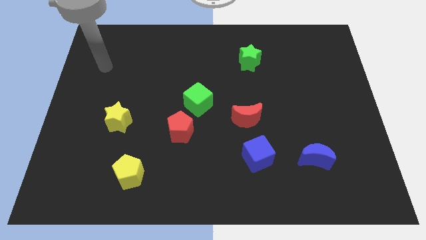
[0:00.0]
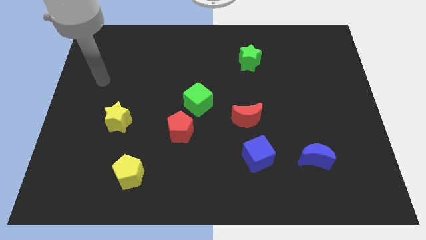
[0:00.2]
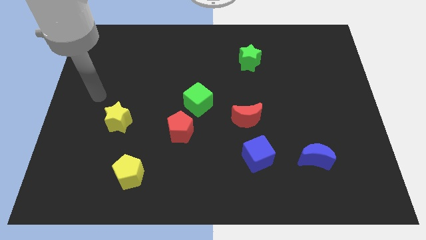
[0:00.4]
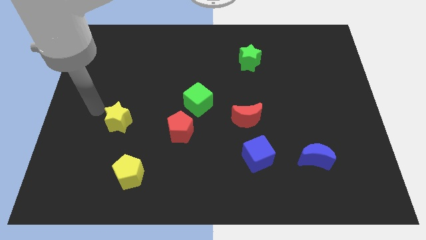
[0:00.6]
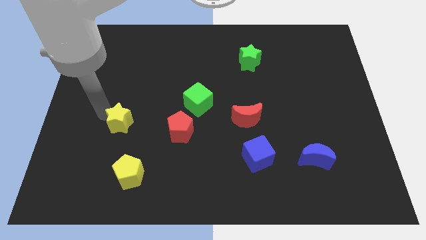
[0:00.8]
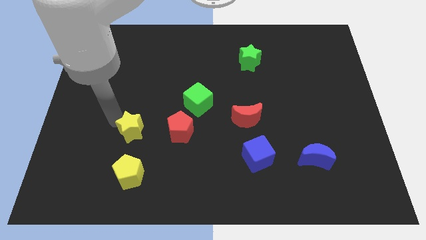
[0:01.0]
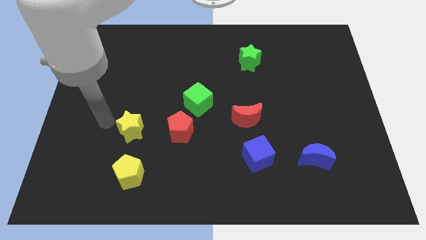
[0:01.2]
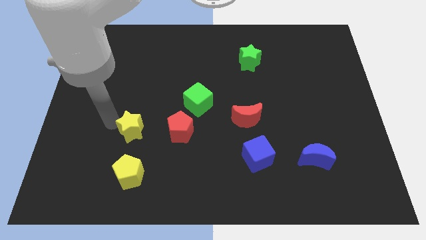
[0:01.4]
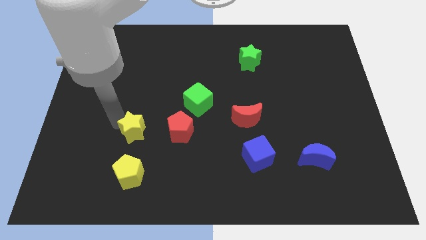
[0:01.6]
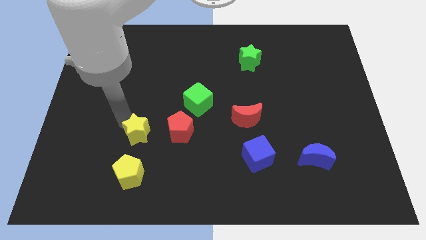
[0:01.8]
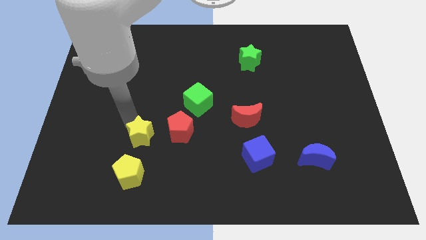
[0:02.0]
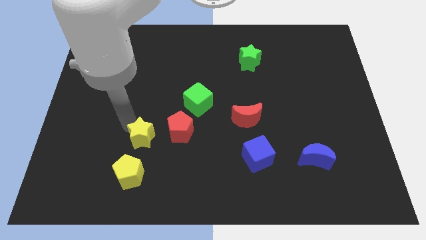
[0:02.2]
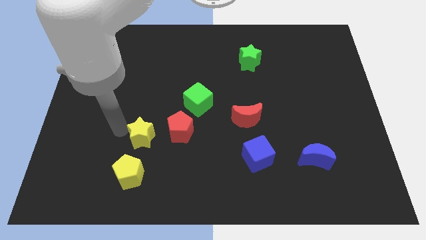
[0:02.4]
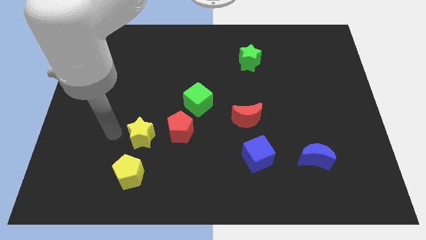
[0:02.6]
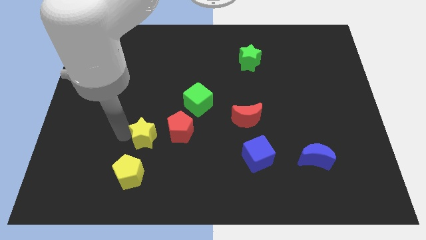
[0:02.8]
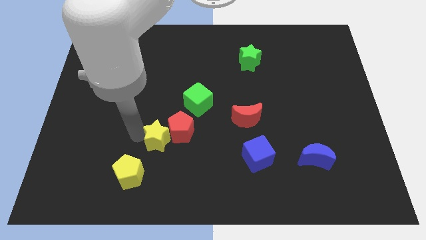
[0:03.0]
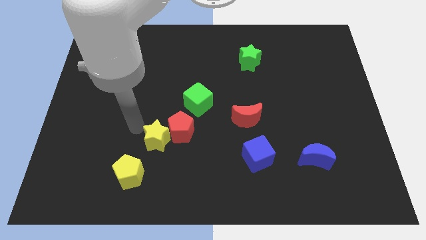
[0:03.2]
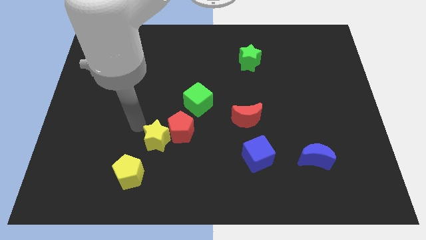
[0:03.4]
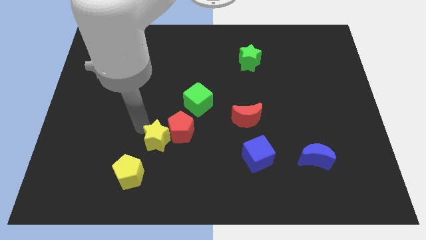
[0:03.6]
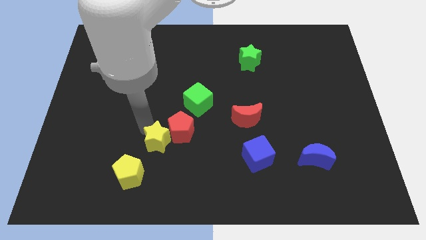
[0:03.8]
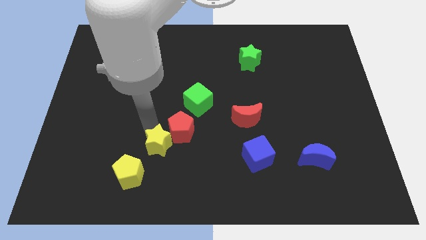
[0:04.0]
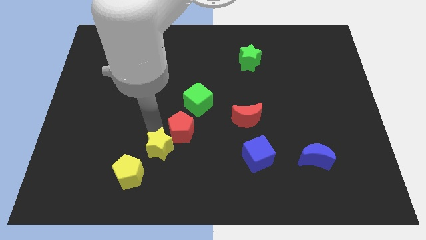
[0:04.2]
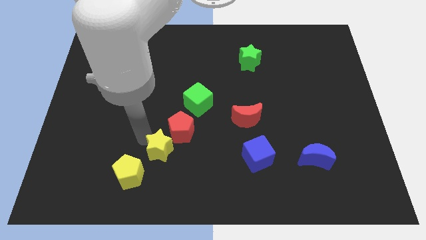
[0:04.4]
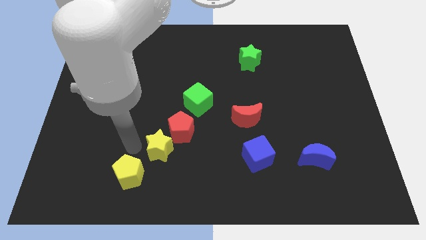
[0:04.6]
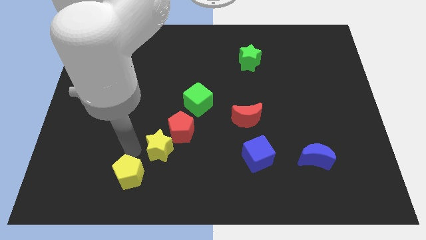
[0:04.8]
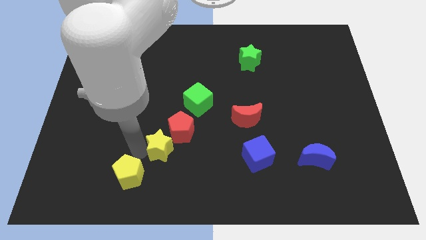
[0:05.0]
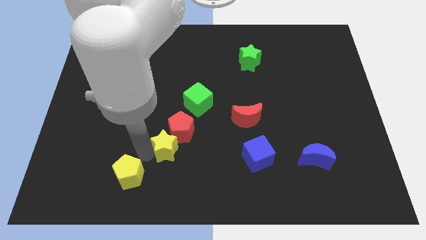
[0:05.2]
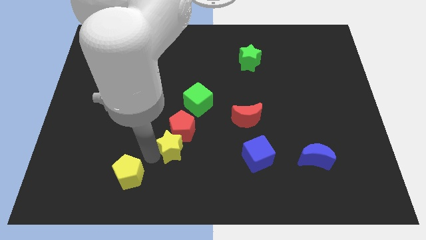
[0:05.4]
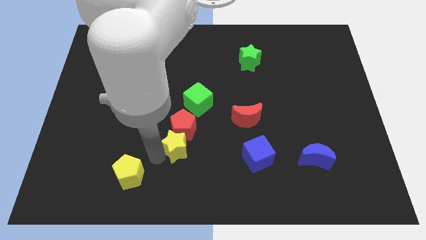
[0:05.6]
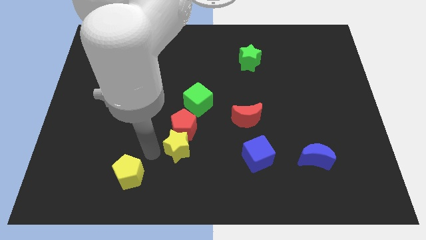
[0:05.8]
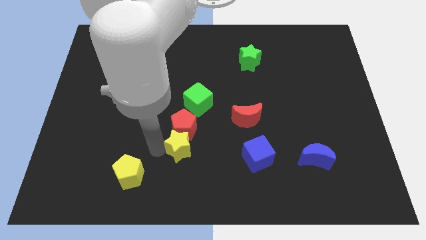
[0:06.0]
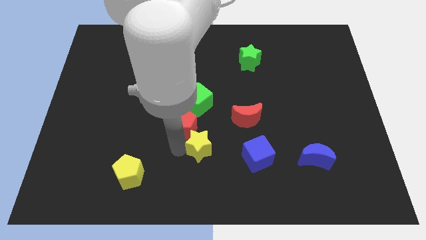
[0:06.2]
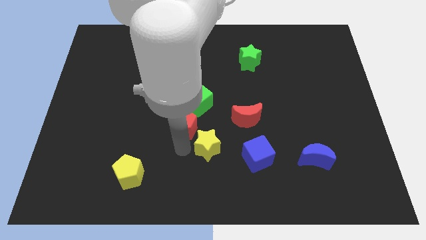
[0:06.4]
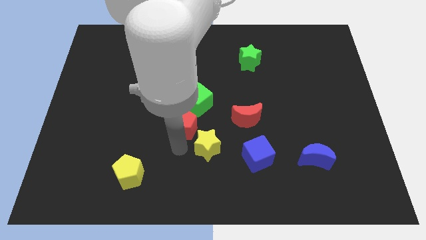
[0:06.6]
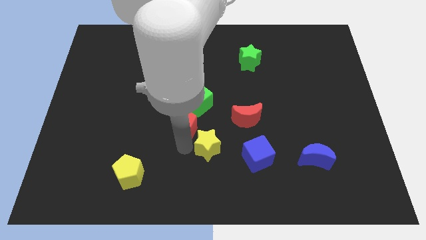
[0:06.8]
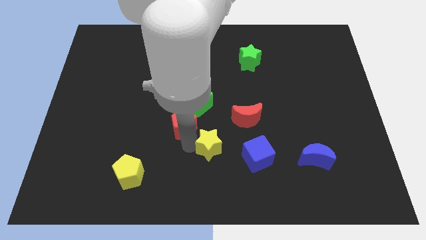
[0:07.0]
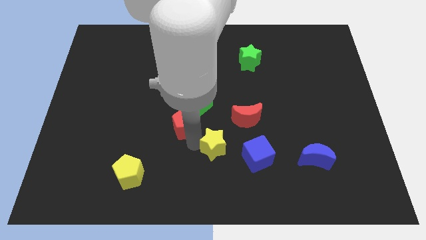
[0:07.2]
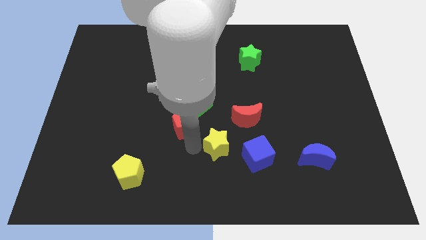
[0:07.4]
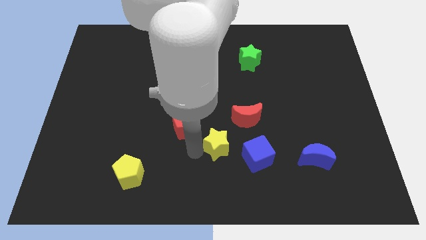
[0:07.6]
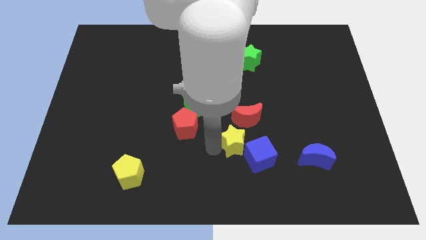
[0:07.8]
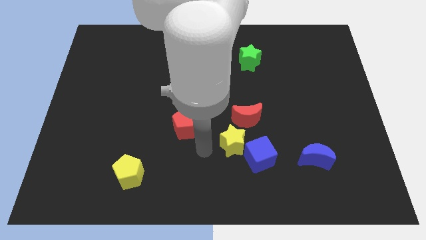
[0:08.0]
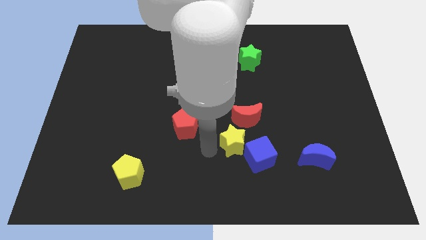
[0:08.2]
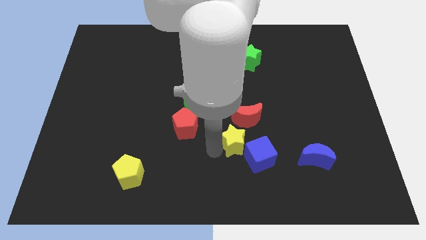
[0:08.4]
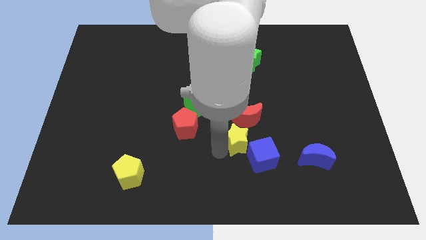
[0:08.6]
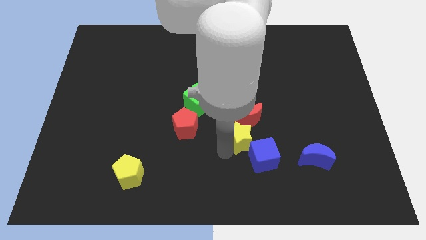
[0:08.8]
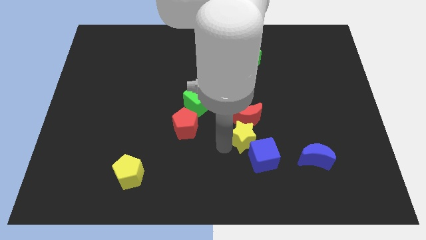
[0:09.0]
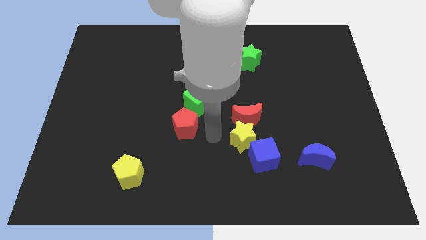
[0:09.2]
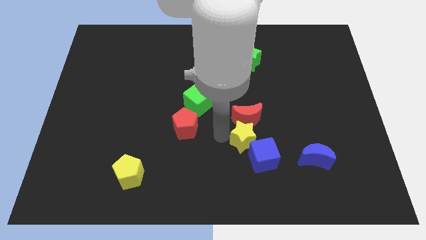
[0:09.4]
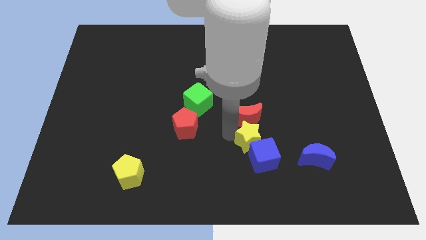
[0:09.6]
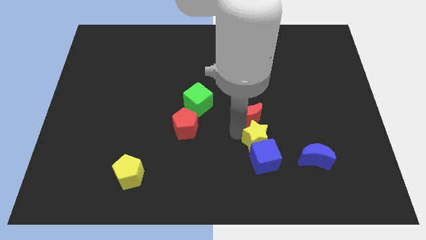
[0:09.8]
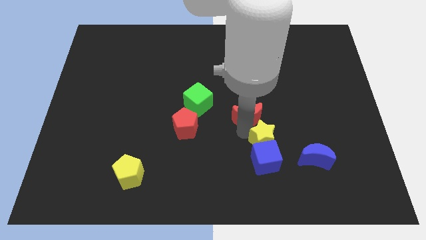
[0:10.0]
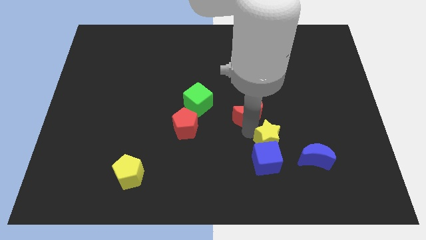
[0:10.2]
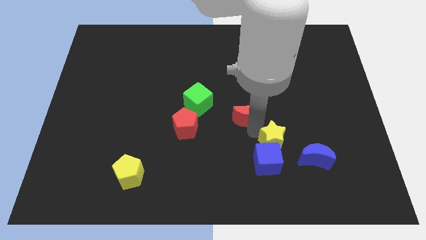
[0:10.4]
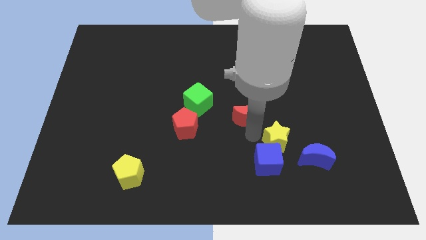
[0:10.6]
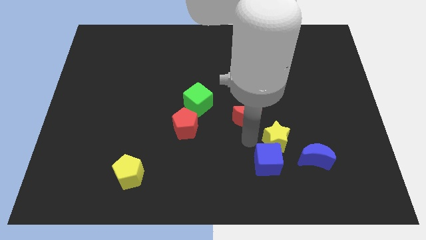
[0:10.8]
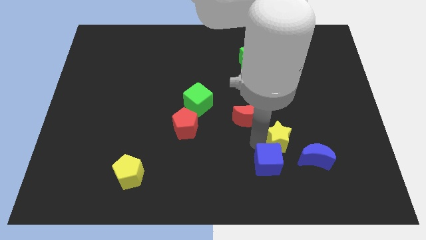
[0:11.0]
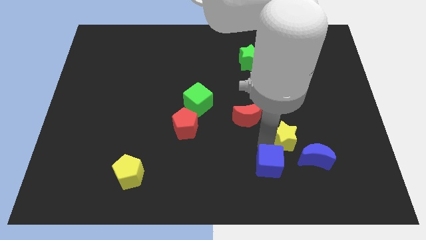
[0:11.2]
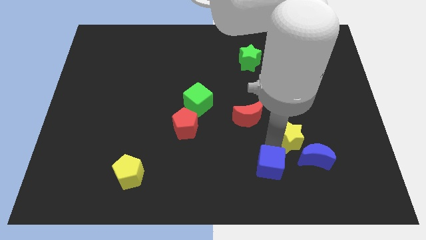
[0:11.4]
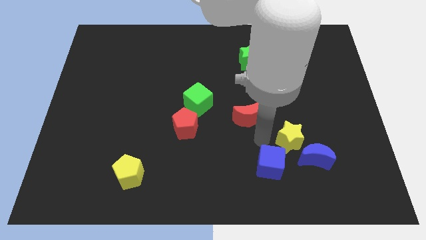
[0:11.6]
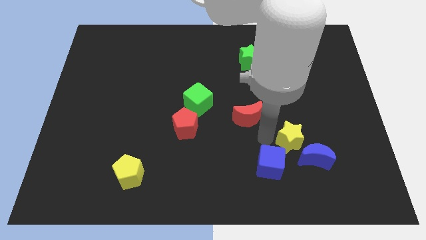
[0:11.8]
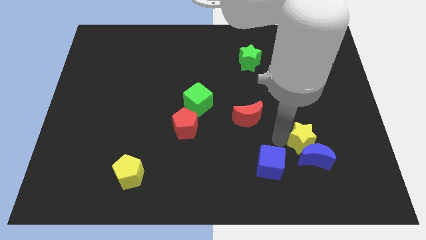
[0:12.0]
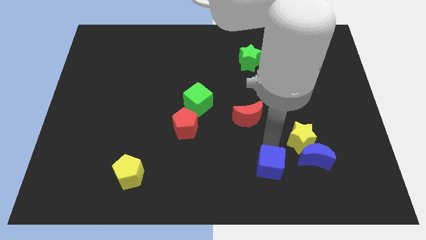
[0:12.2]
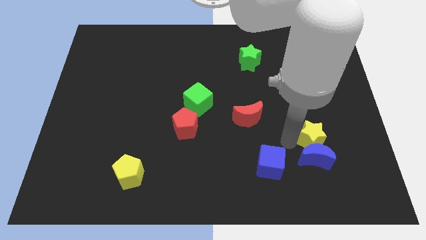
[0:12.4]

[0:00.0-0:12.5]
slide the yellow star diagonally up and to the right of the blue moon
